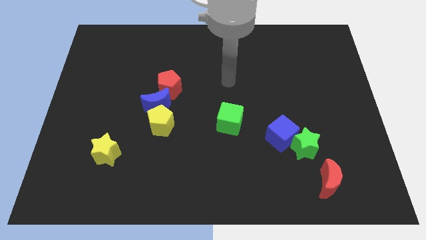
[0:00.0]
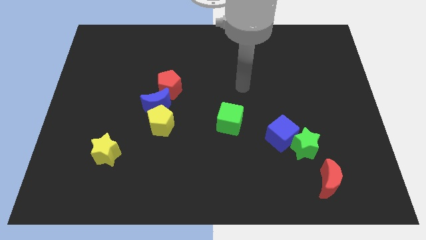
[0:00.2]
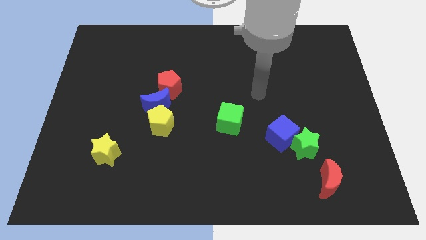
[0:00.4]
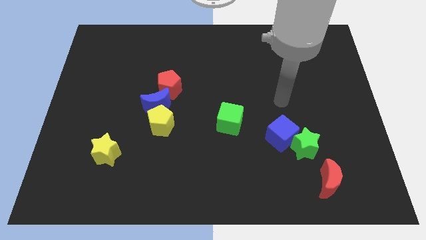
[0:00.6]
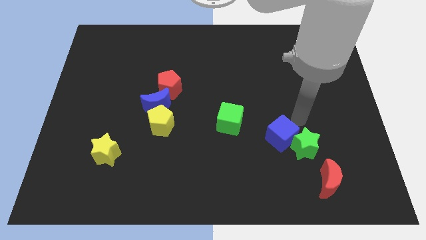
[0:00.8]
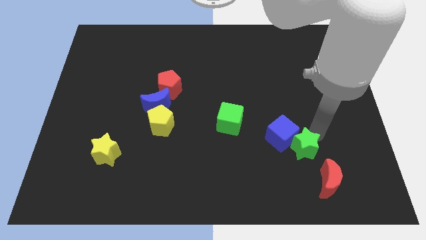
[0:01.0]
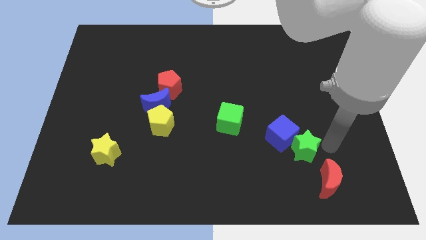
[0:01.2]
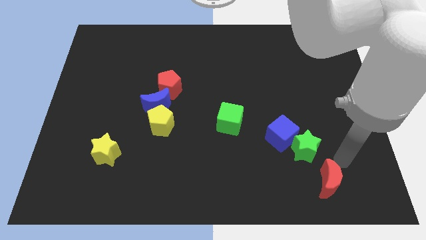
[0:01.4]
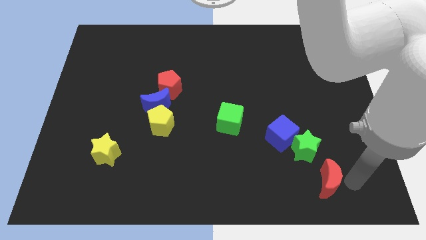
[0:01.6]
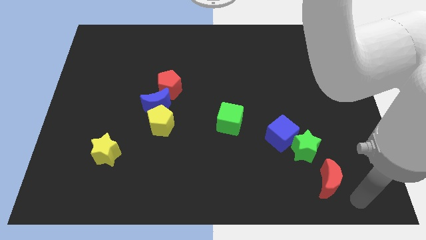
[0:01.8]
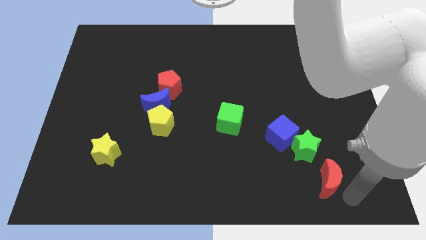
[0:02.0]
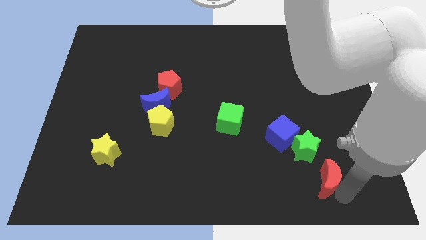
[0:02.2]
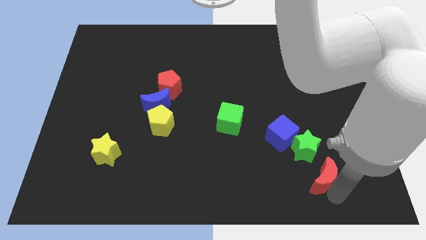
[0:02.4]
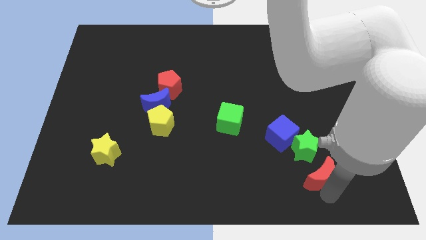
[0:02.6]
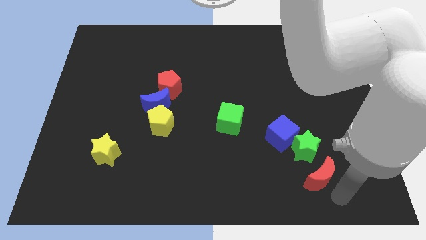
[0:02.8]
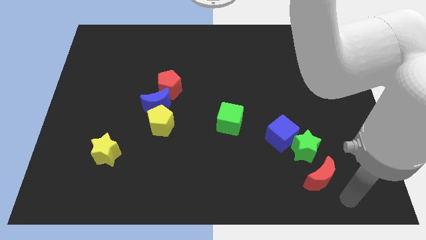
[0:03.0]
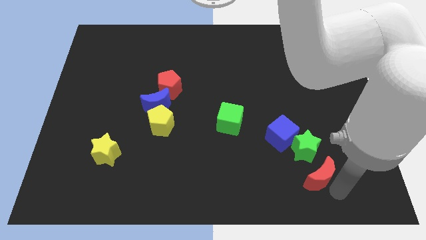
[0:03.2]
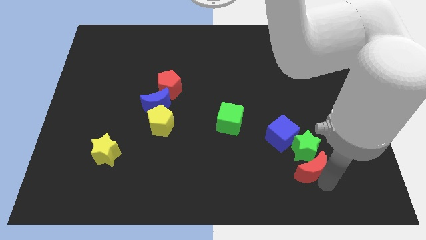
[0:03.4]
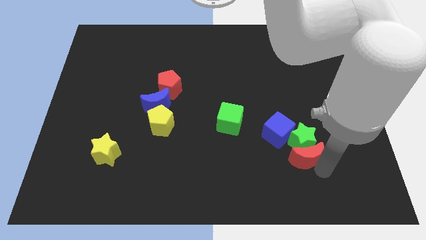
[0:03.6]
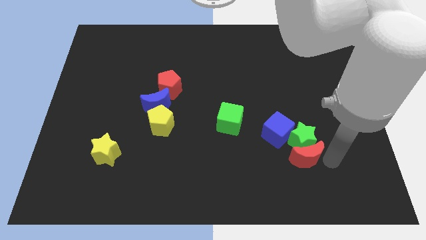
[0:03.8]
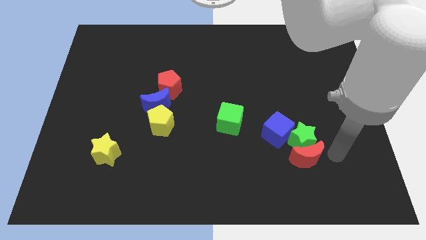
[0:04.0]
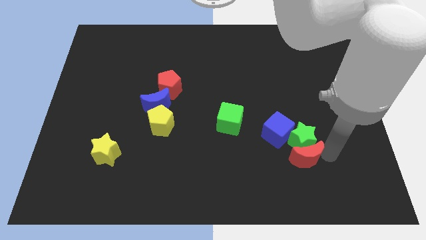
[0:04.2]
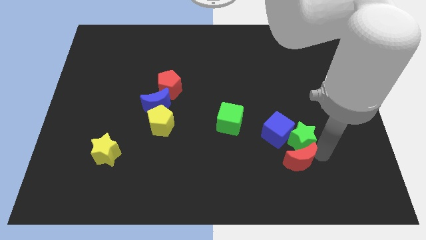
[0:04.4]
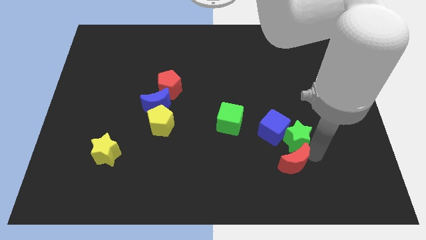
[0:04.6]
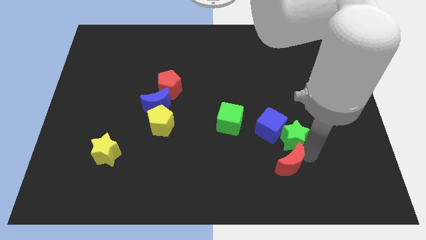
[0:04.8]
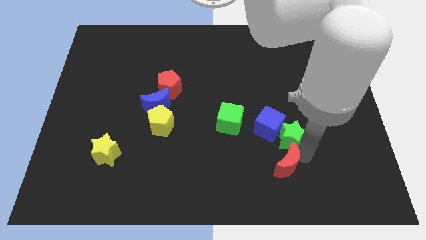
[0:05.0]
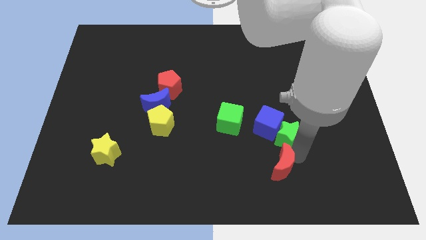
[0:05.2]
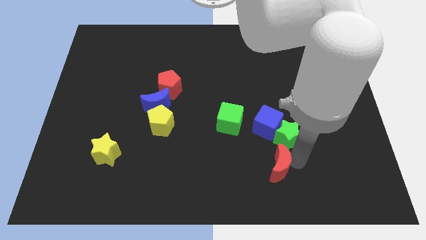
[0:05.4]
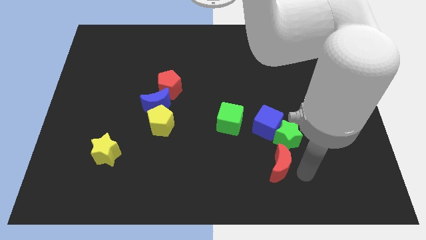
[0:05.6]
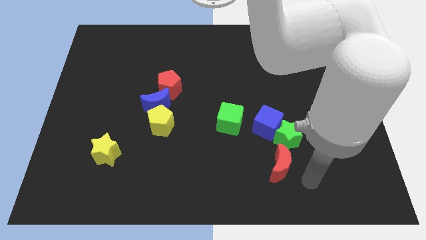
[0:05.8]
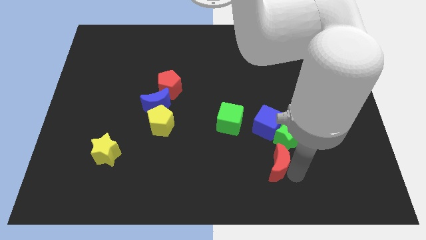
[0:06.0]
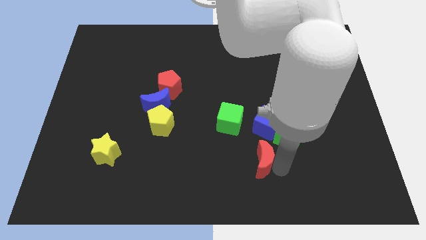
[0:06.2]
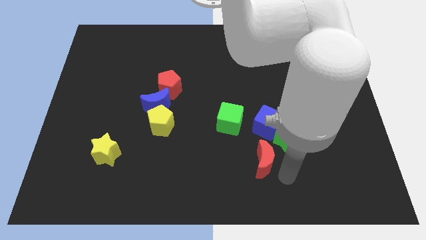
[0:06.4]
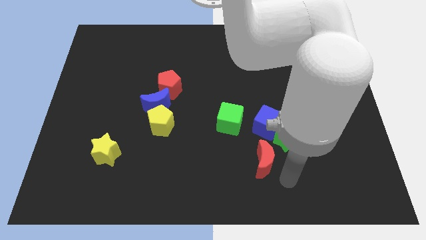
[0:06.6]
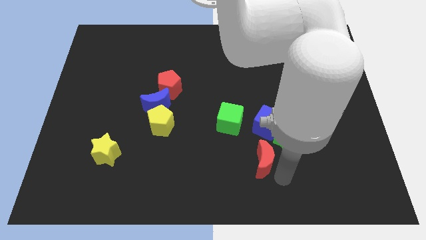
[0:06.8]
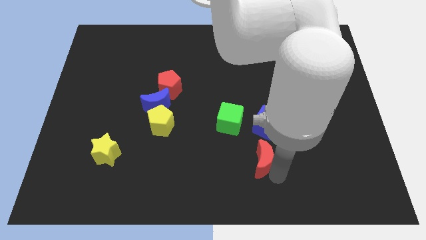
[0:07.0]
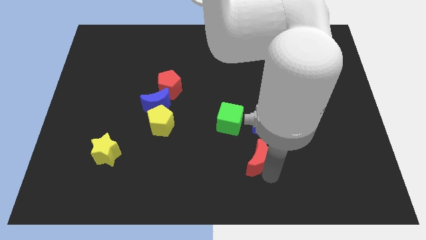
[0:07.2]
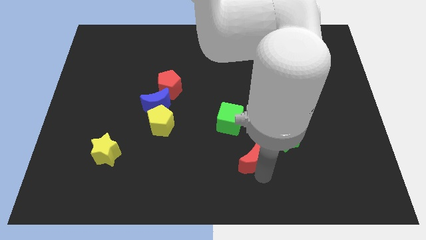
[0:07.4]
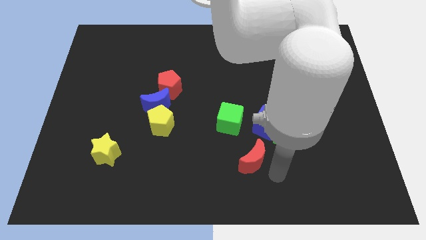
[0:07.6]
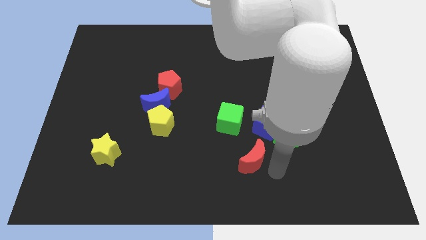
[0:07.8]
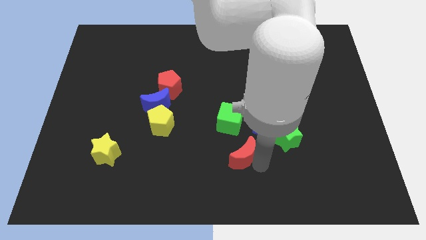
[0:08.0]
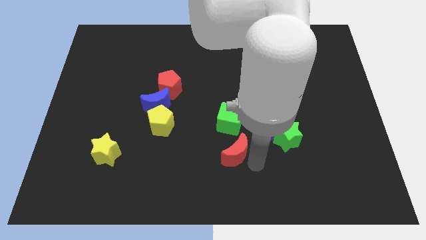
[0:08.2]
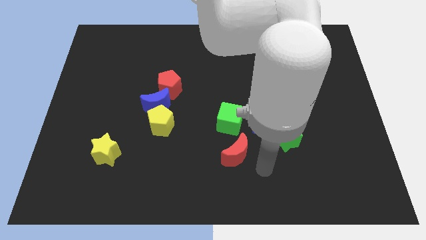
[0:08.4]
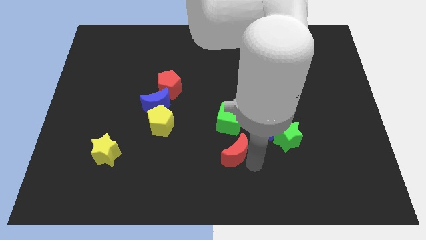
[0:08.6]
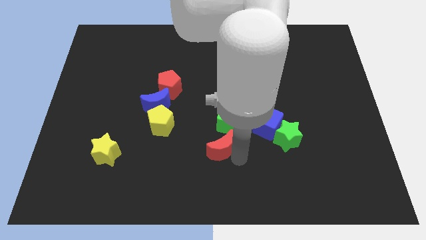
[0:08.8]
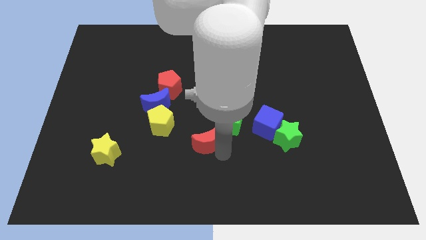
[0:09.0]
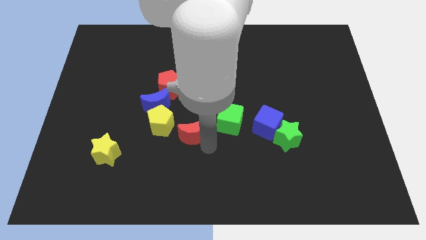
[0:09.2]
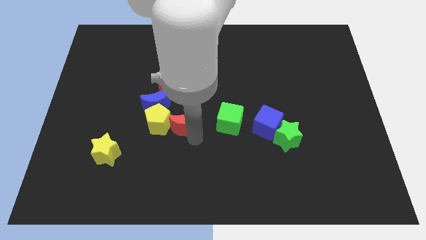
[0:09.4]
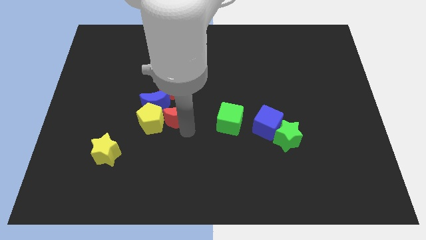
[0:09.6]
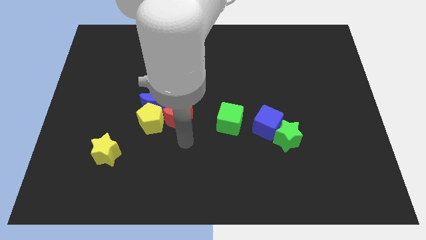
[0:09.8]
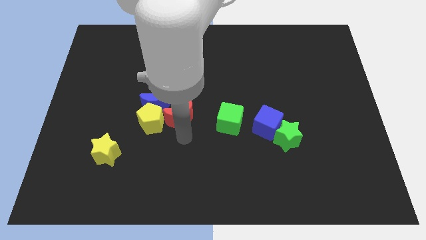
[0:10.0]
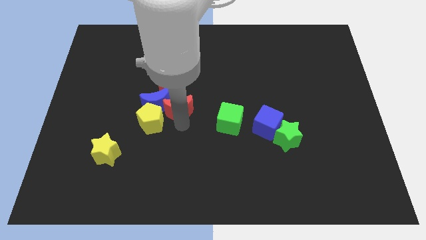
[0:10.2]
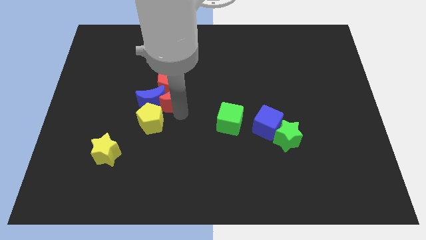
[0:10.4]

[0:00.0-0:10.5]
push the red moon to the red pentagon

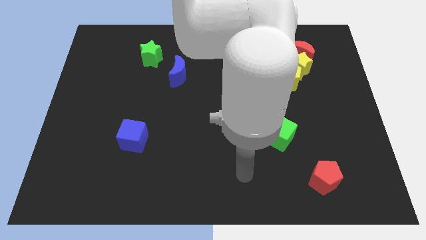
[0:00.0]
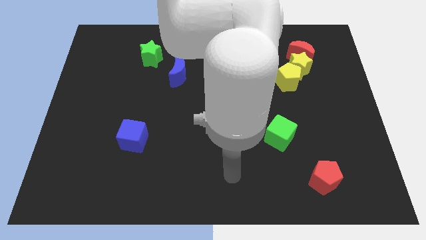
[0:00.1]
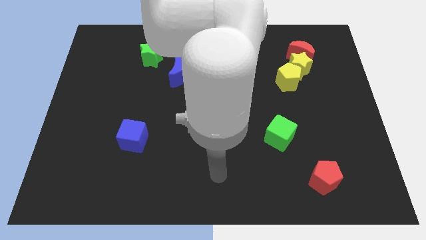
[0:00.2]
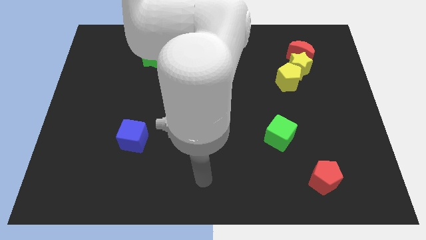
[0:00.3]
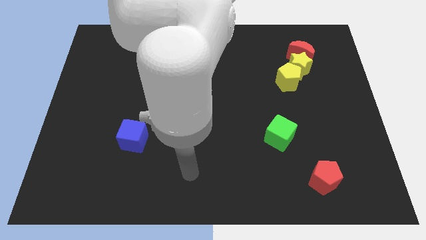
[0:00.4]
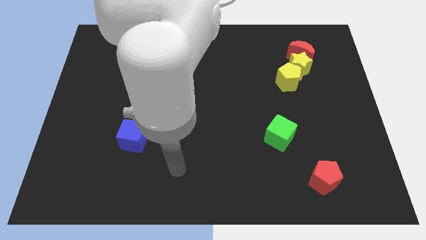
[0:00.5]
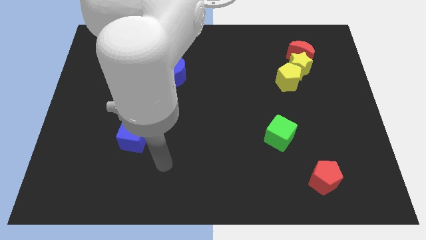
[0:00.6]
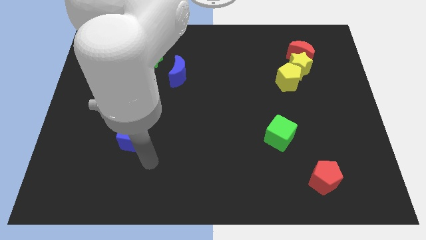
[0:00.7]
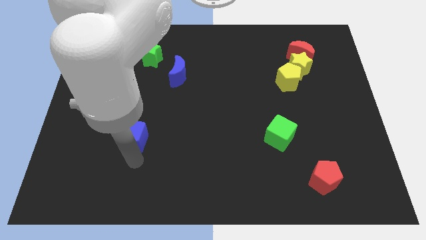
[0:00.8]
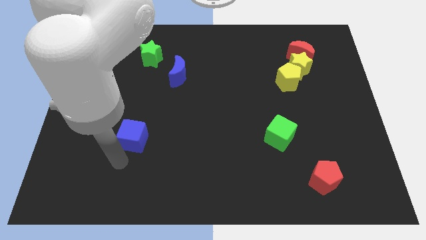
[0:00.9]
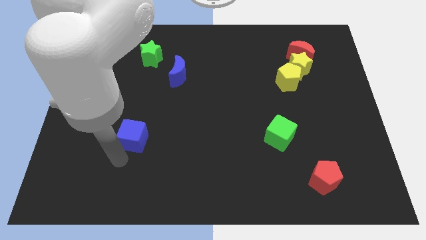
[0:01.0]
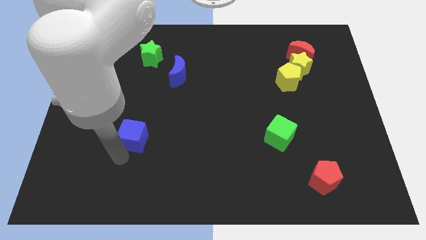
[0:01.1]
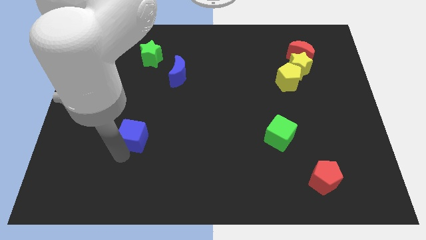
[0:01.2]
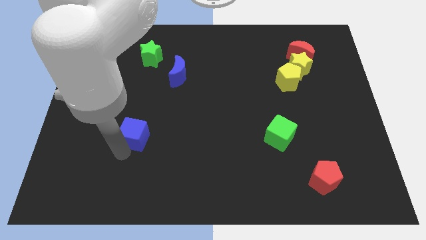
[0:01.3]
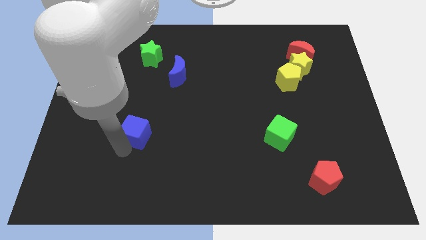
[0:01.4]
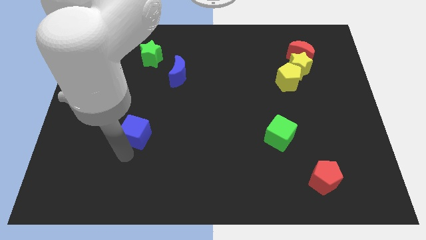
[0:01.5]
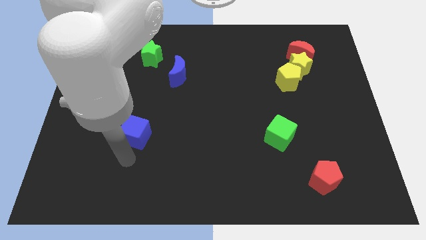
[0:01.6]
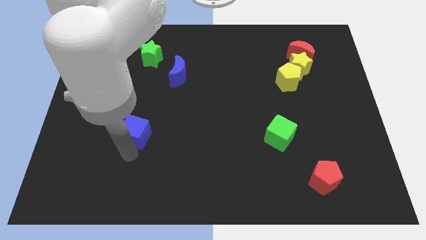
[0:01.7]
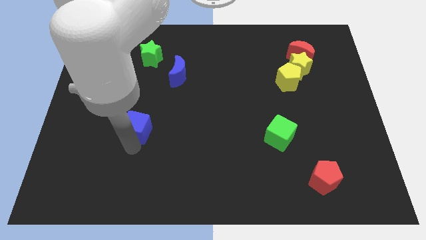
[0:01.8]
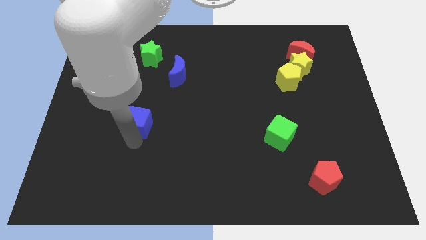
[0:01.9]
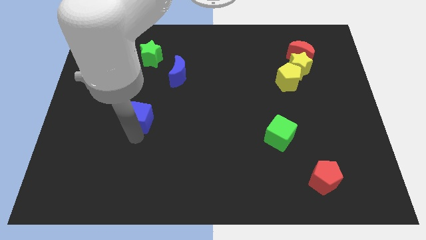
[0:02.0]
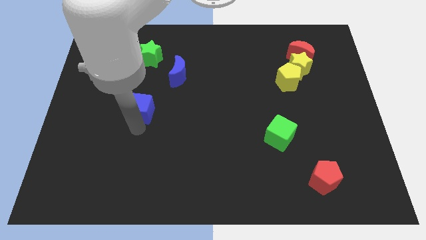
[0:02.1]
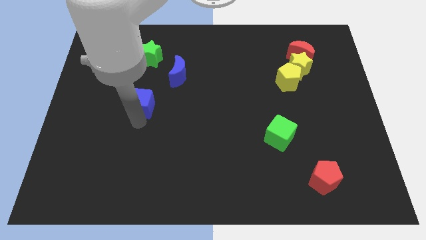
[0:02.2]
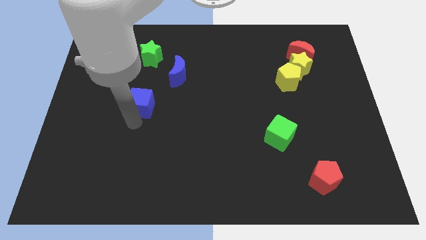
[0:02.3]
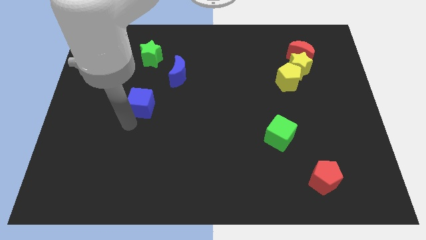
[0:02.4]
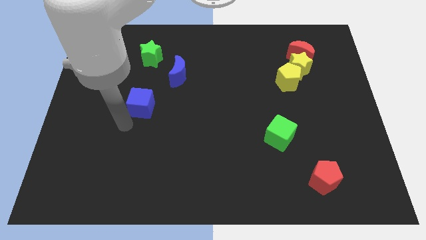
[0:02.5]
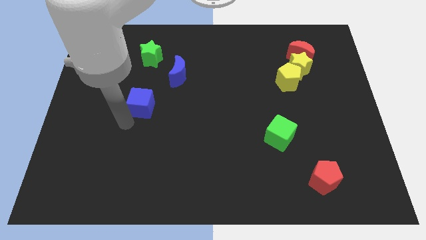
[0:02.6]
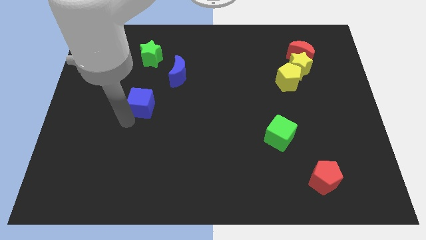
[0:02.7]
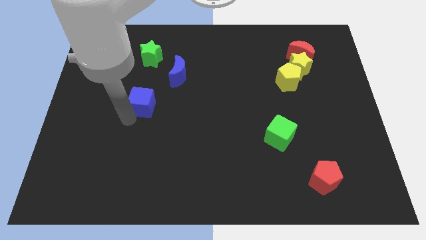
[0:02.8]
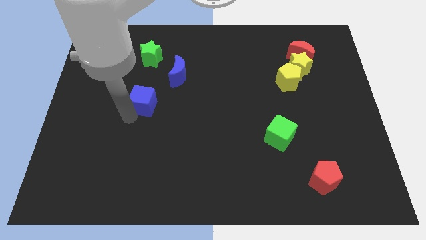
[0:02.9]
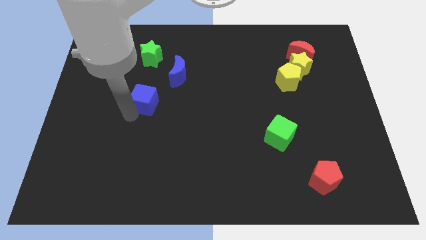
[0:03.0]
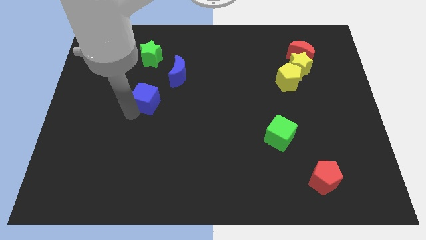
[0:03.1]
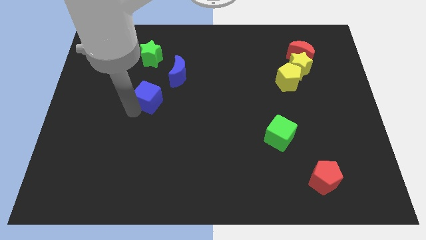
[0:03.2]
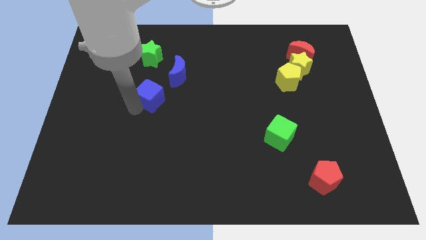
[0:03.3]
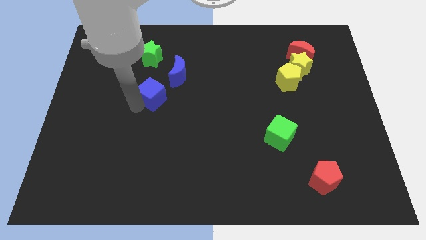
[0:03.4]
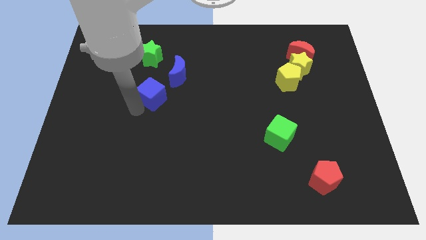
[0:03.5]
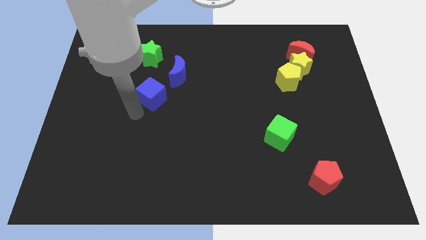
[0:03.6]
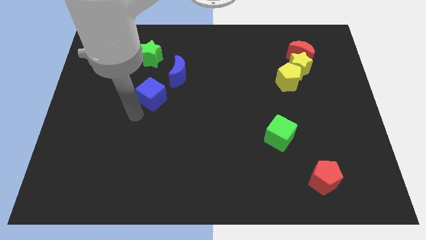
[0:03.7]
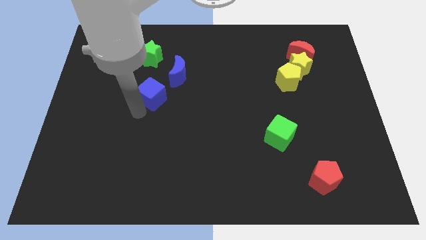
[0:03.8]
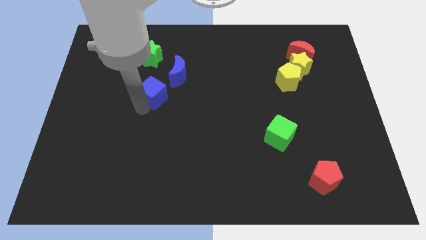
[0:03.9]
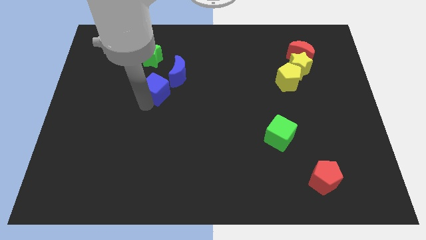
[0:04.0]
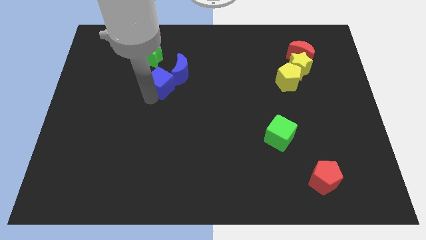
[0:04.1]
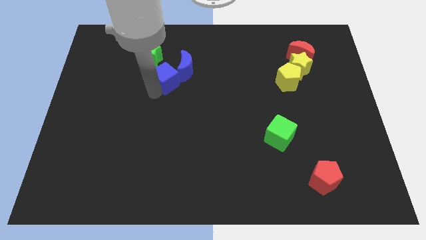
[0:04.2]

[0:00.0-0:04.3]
push the blue cube to the blue moon
